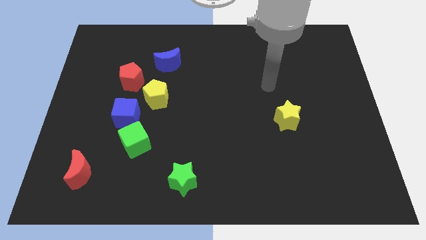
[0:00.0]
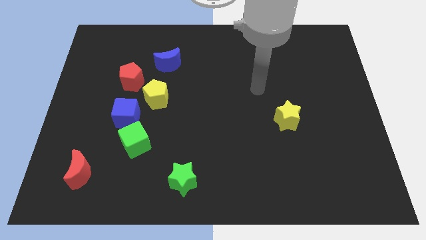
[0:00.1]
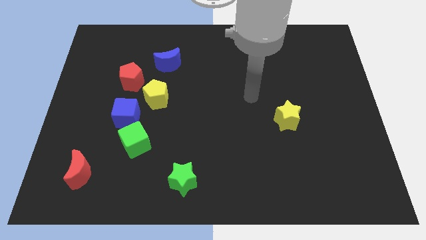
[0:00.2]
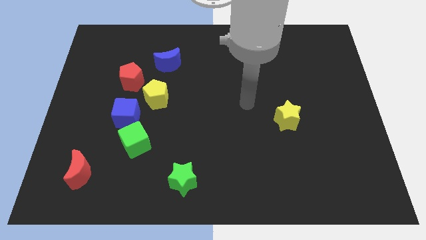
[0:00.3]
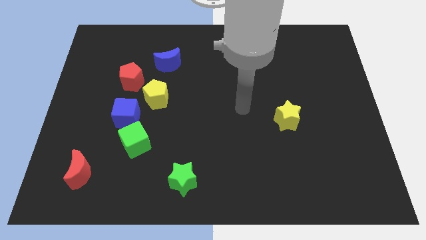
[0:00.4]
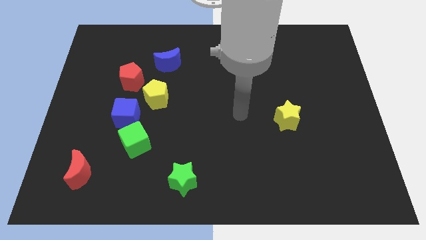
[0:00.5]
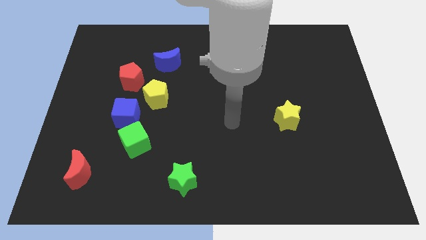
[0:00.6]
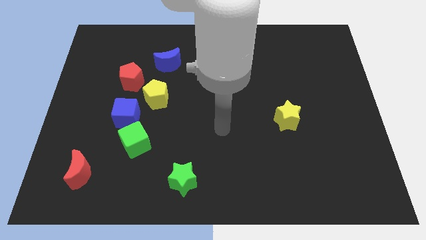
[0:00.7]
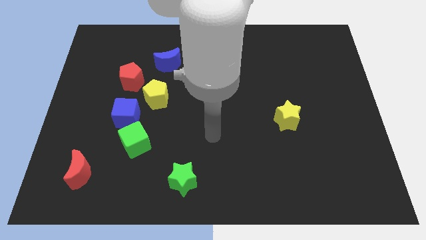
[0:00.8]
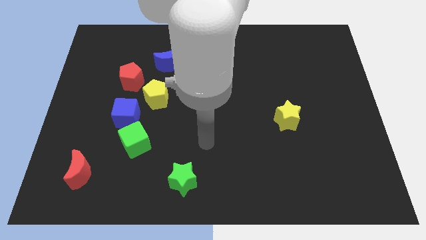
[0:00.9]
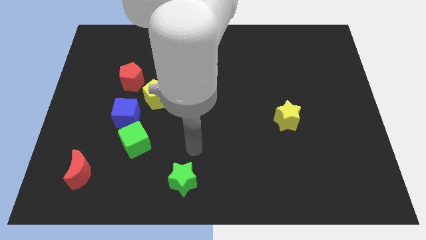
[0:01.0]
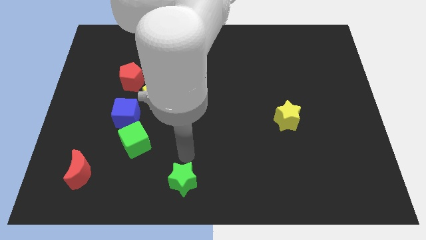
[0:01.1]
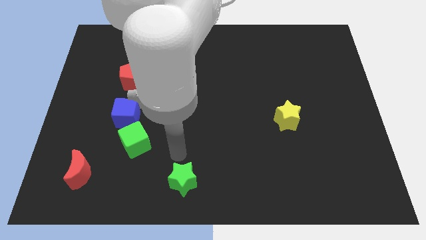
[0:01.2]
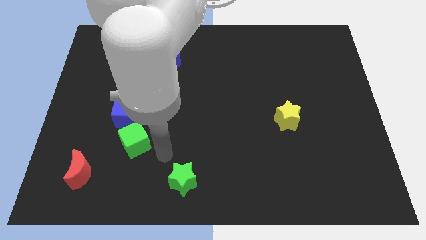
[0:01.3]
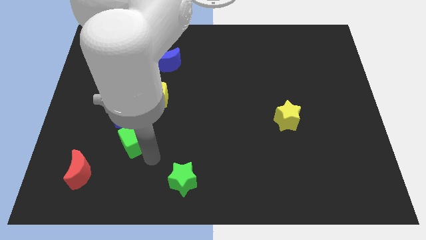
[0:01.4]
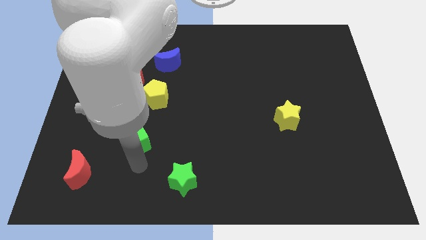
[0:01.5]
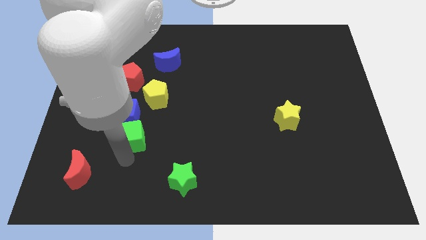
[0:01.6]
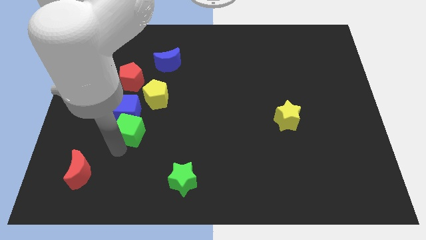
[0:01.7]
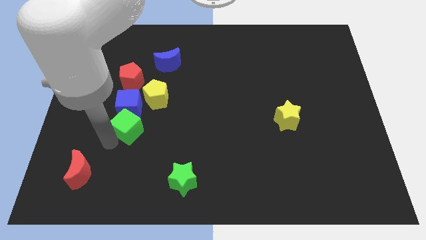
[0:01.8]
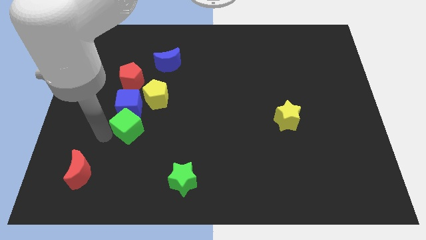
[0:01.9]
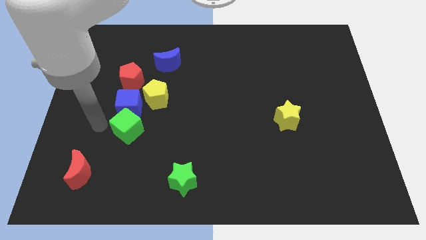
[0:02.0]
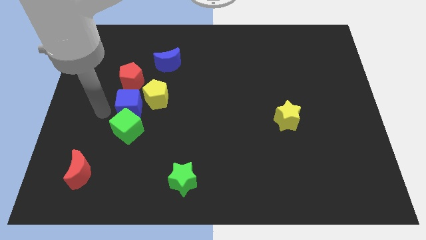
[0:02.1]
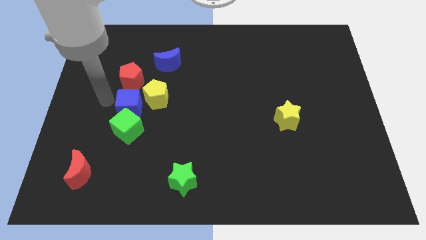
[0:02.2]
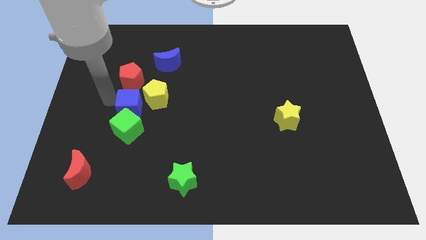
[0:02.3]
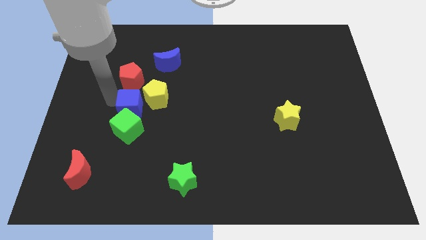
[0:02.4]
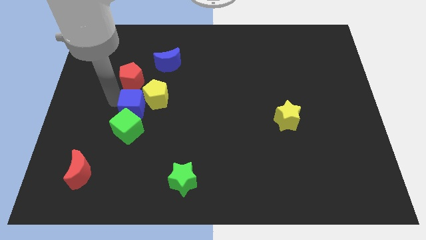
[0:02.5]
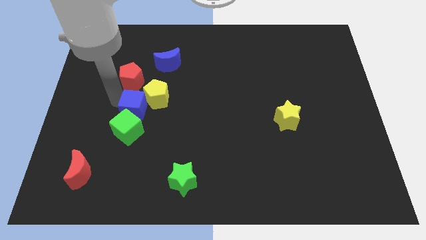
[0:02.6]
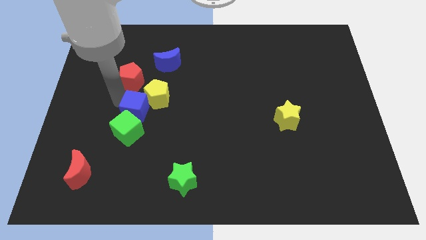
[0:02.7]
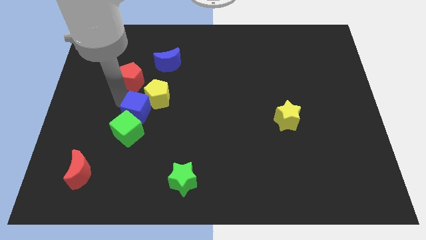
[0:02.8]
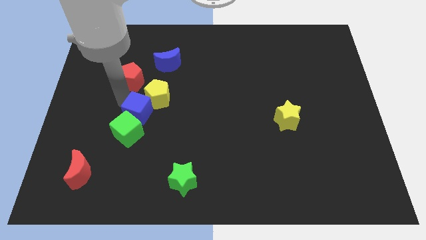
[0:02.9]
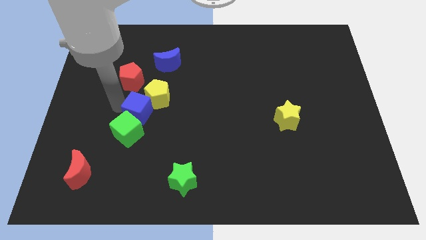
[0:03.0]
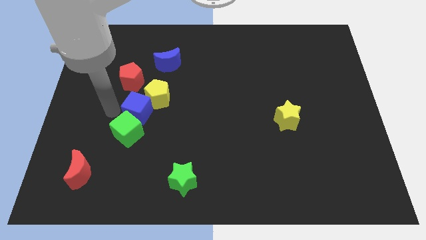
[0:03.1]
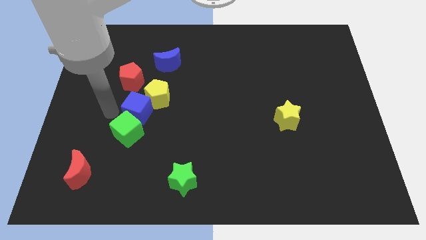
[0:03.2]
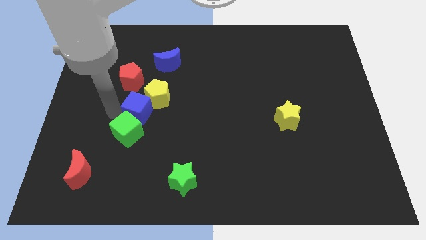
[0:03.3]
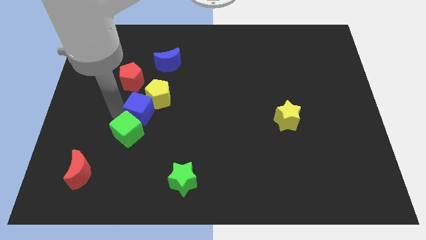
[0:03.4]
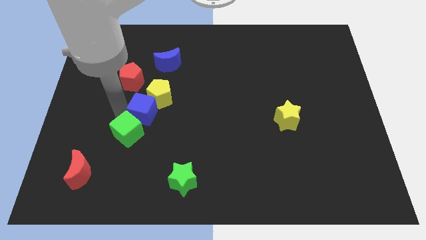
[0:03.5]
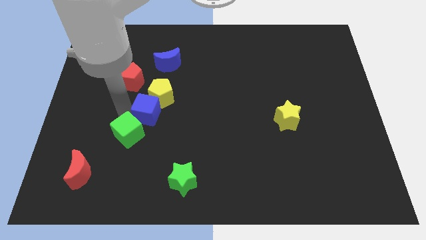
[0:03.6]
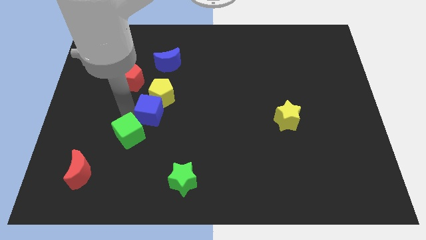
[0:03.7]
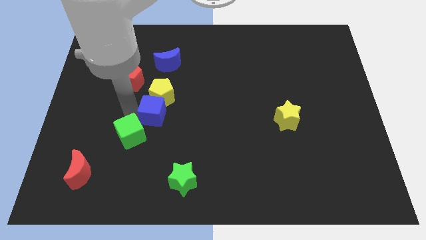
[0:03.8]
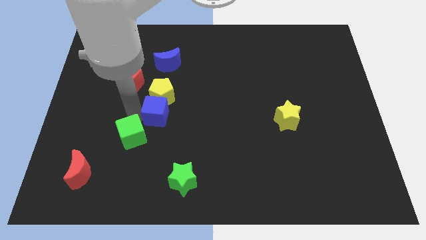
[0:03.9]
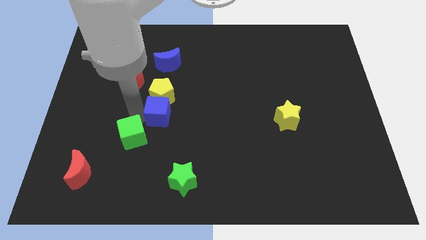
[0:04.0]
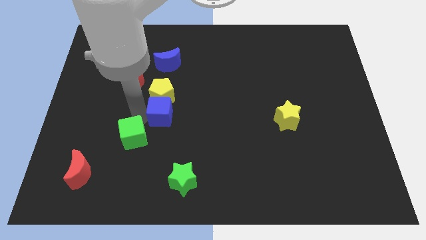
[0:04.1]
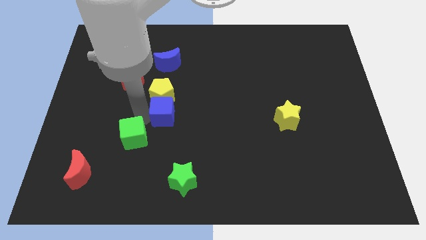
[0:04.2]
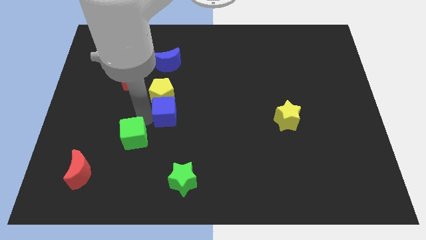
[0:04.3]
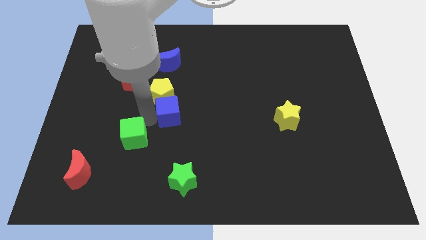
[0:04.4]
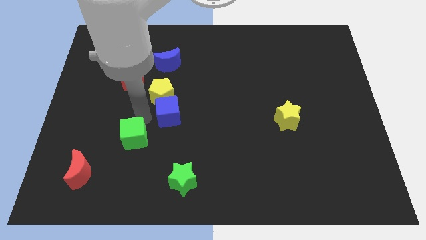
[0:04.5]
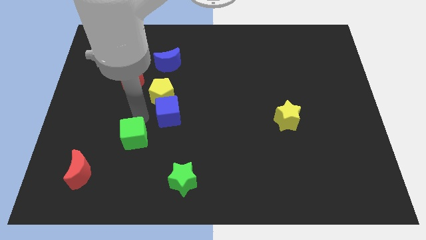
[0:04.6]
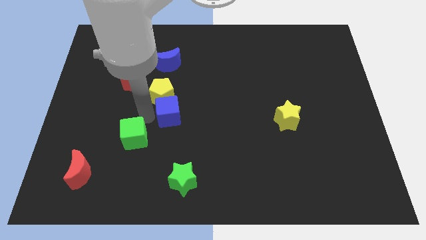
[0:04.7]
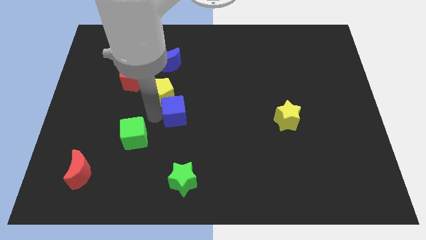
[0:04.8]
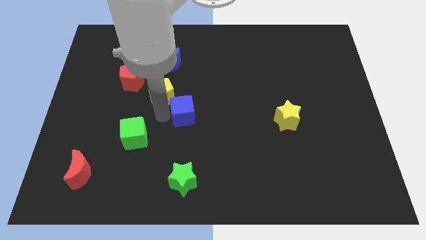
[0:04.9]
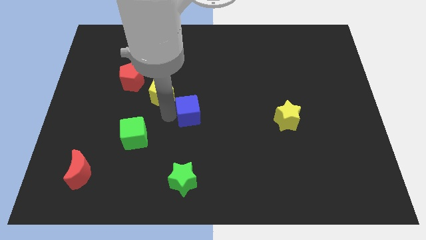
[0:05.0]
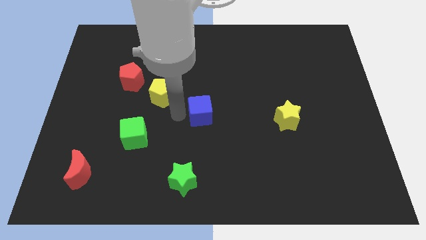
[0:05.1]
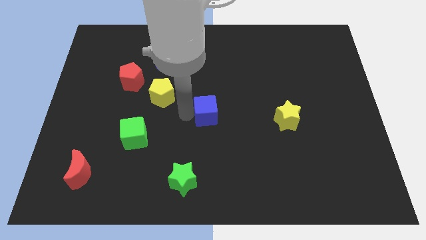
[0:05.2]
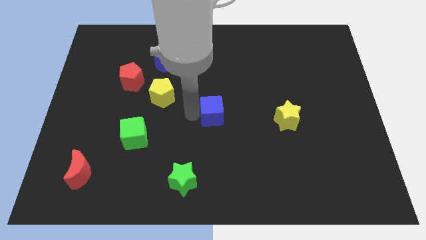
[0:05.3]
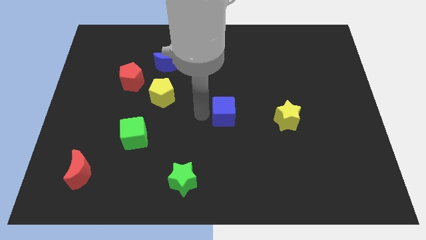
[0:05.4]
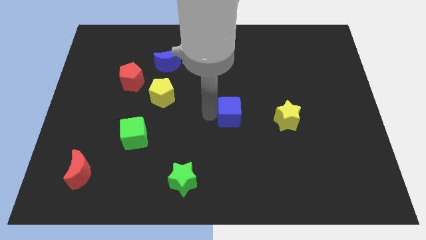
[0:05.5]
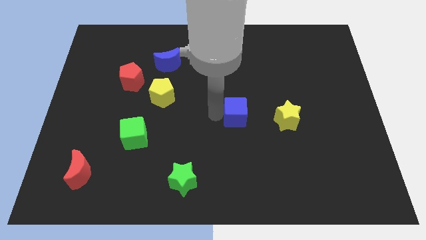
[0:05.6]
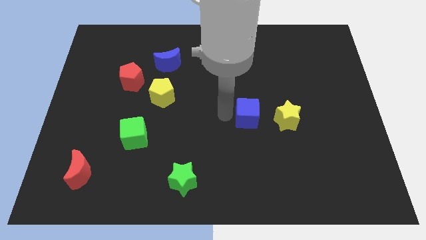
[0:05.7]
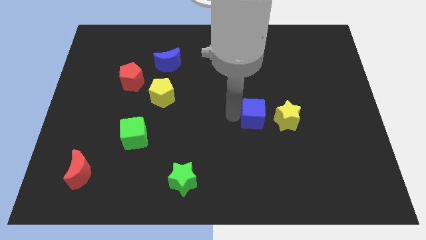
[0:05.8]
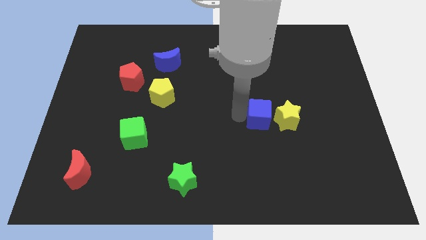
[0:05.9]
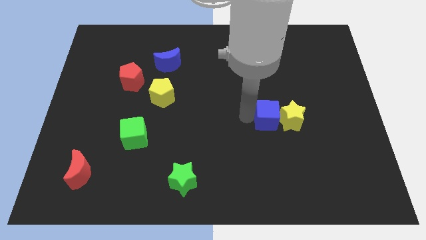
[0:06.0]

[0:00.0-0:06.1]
push the blue cube to the yellow star

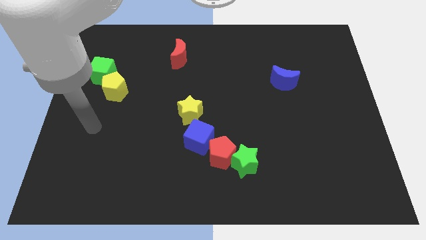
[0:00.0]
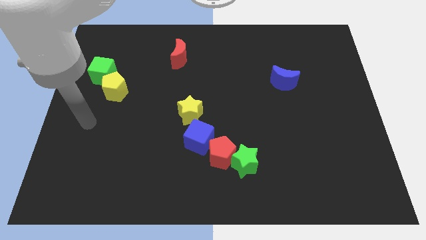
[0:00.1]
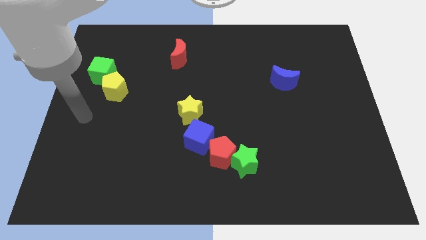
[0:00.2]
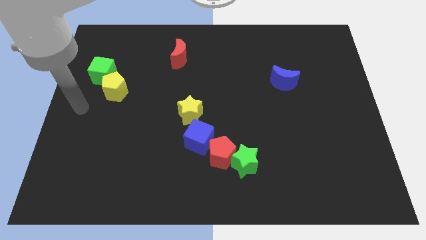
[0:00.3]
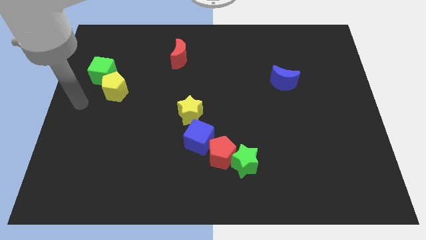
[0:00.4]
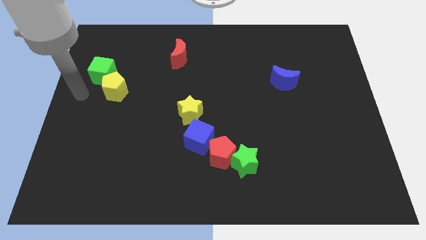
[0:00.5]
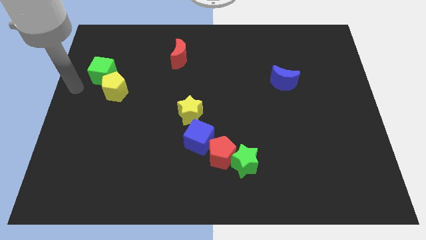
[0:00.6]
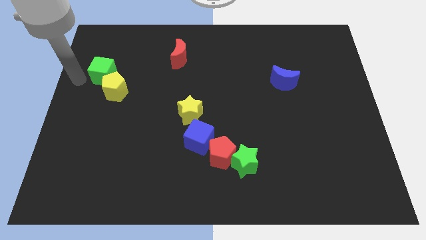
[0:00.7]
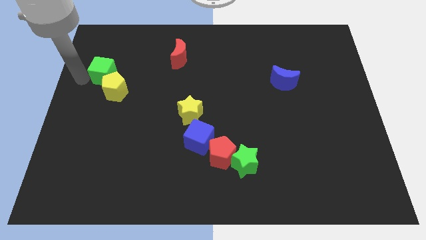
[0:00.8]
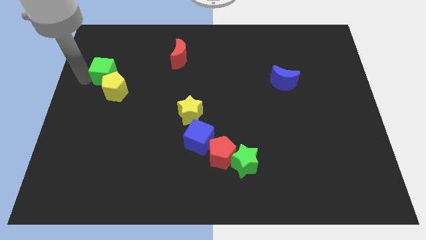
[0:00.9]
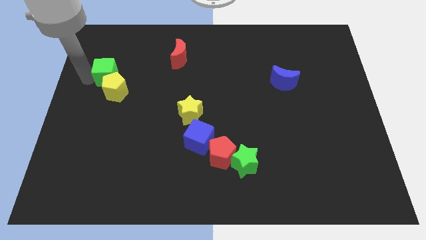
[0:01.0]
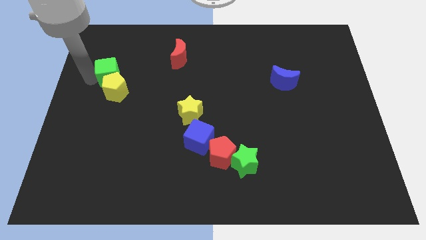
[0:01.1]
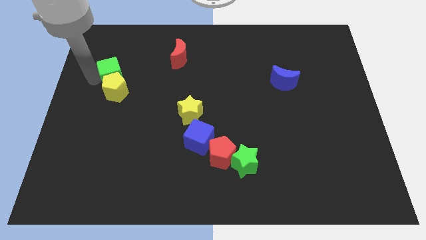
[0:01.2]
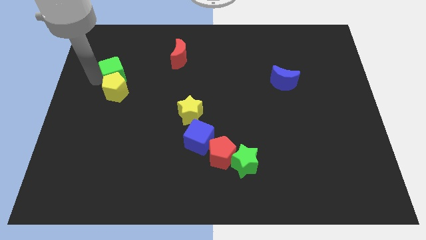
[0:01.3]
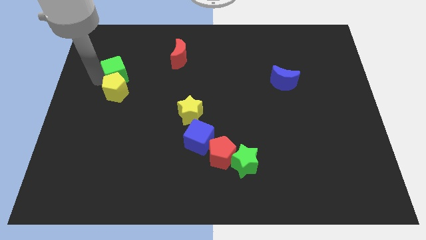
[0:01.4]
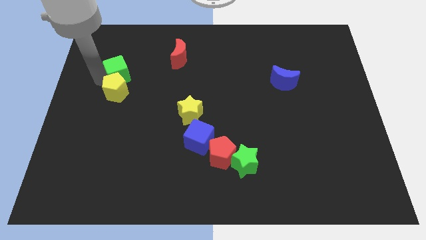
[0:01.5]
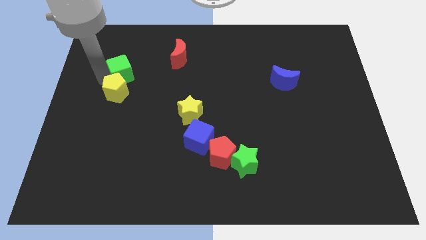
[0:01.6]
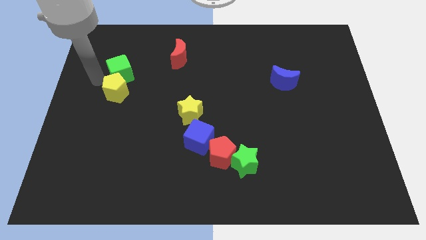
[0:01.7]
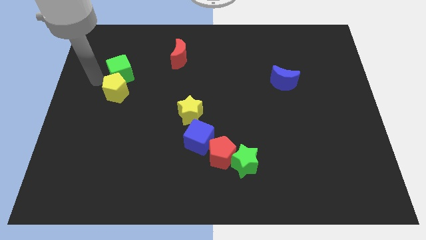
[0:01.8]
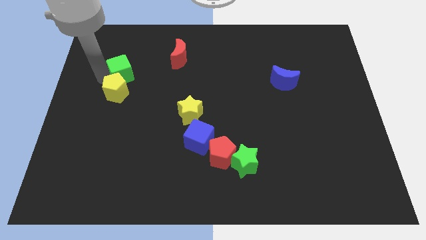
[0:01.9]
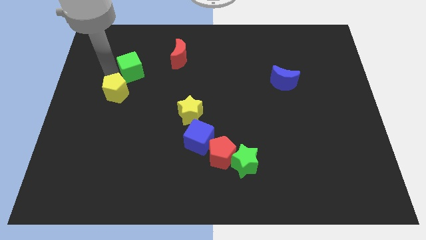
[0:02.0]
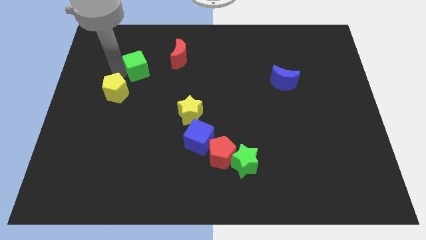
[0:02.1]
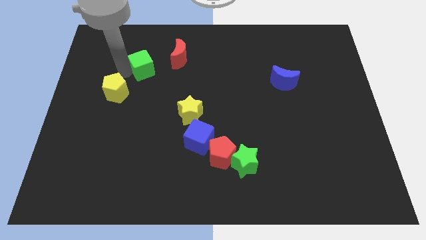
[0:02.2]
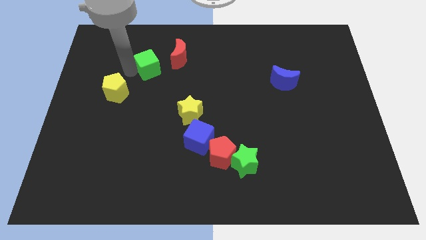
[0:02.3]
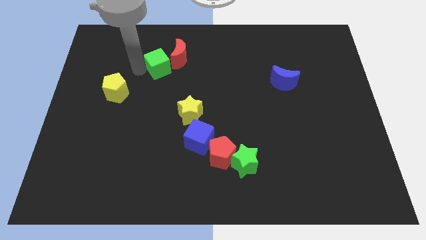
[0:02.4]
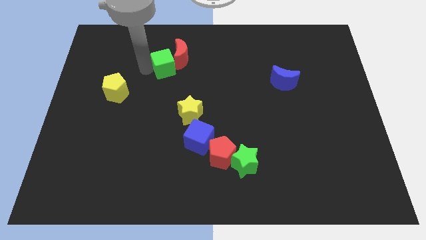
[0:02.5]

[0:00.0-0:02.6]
push the green cube to the red moon
